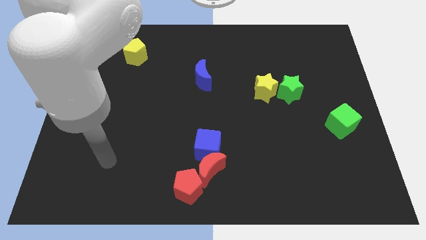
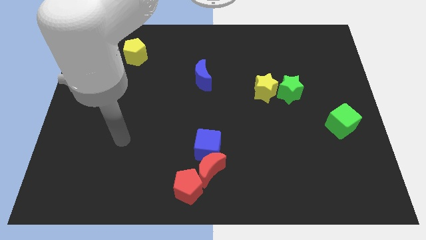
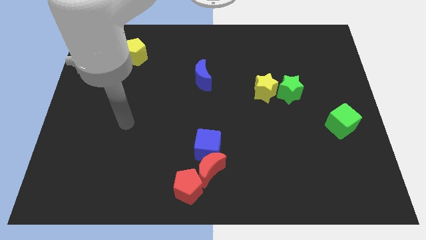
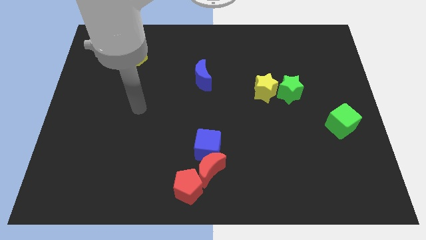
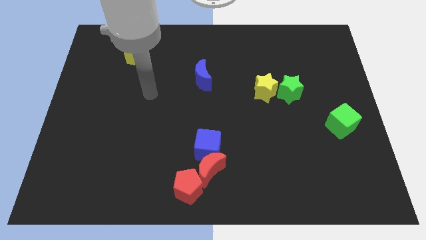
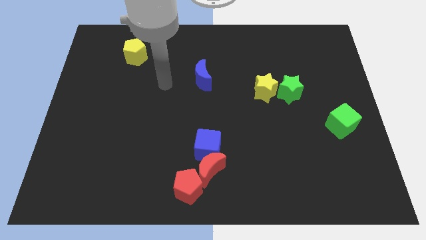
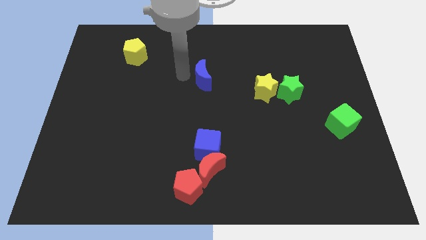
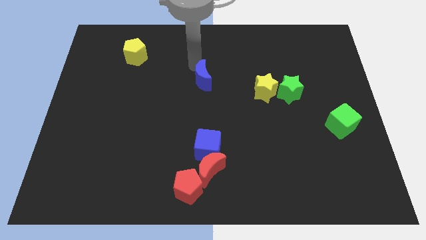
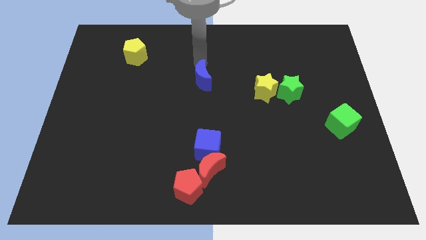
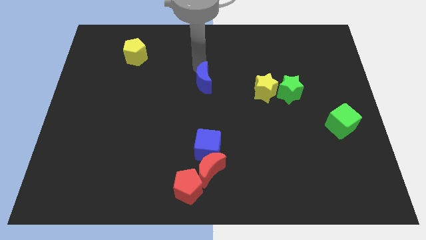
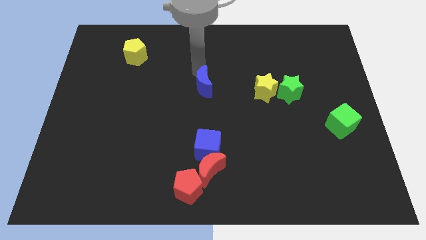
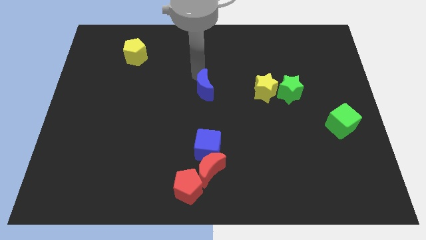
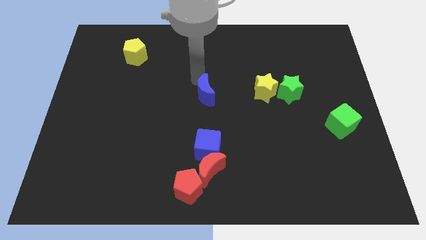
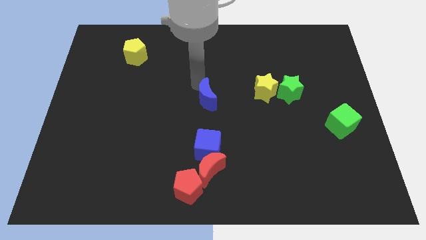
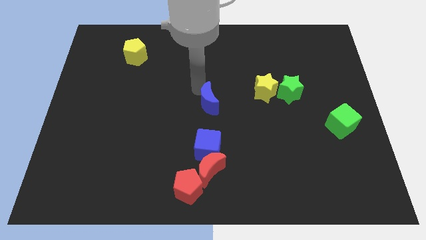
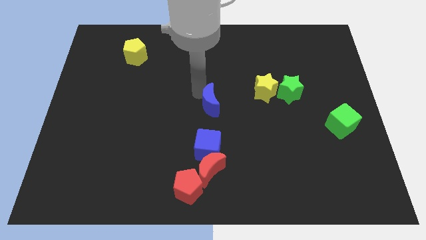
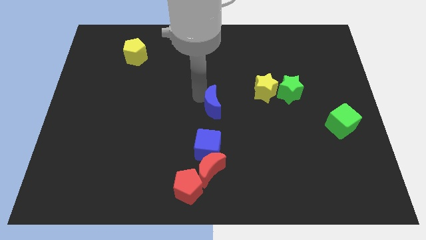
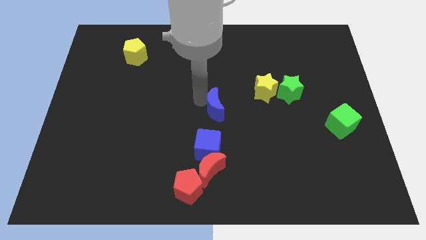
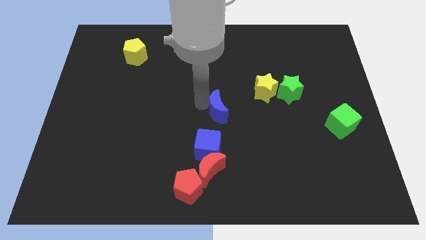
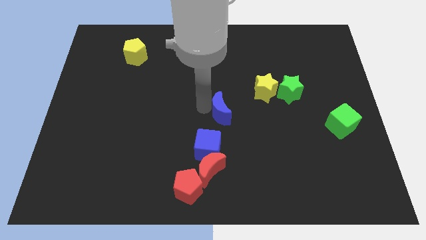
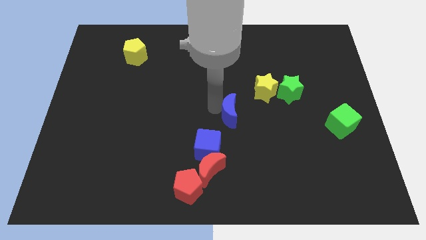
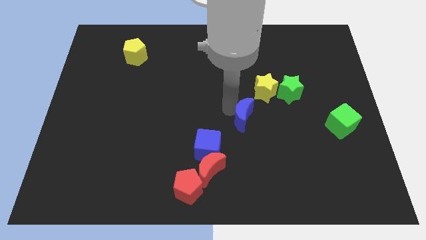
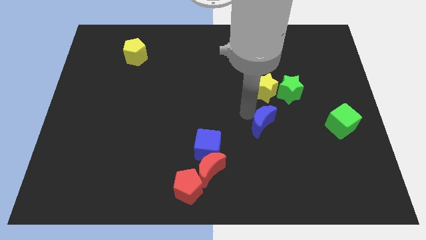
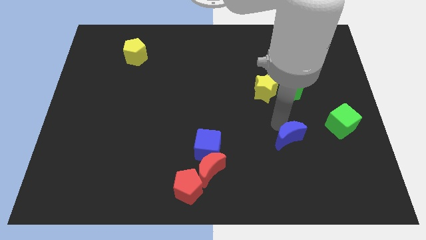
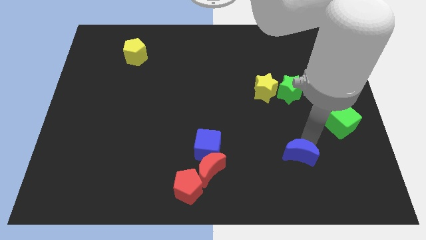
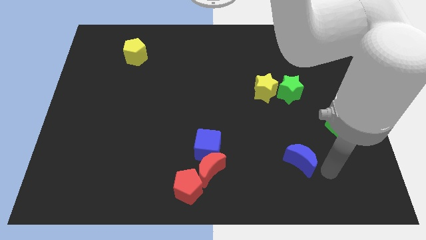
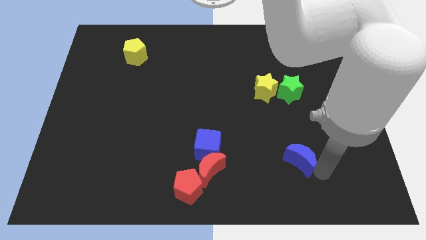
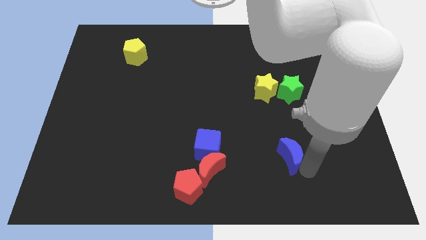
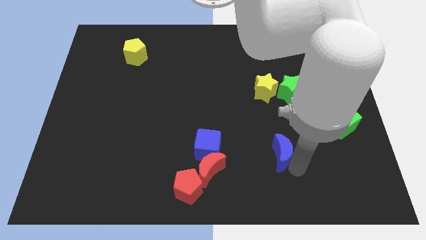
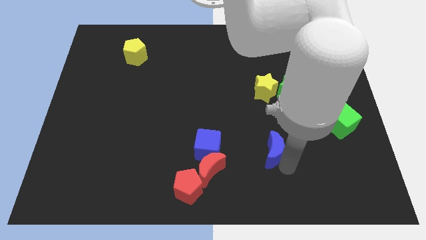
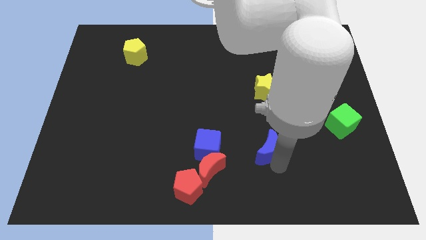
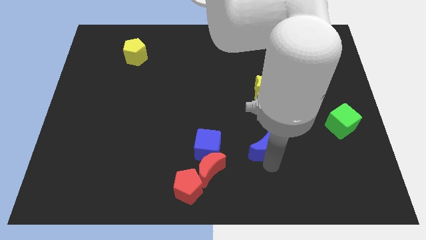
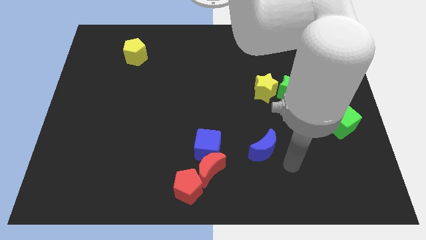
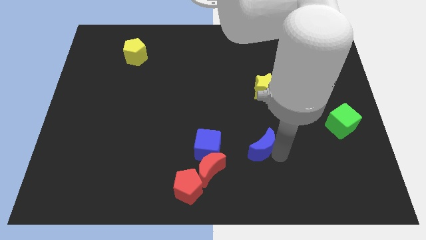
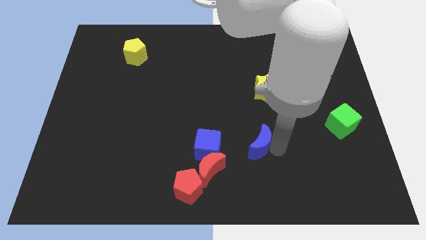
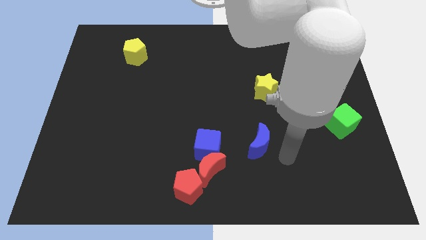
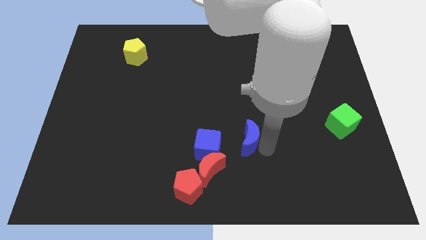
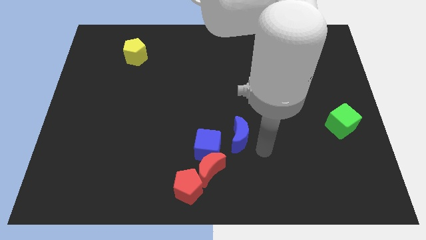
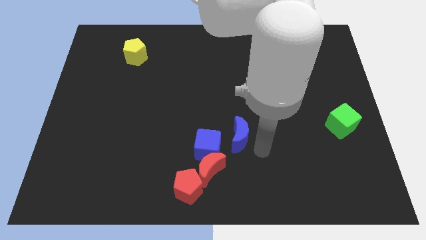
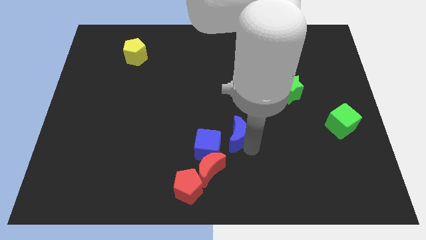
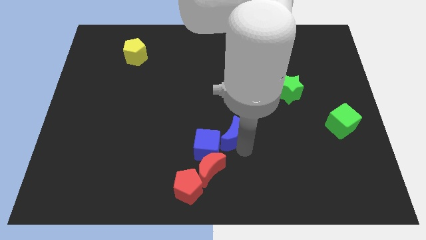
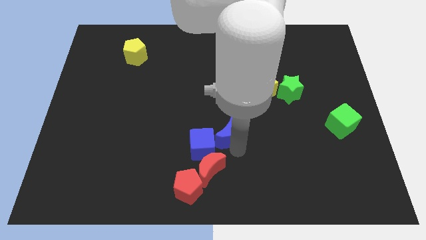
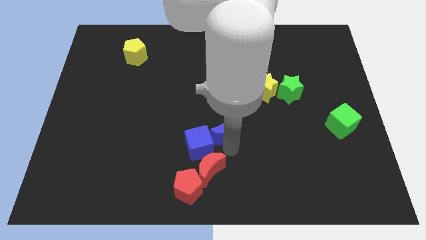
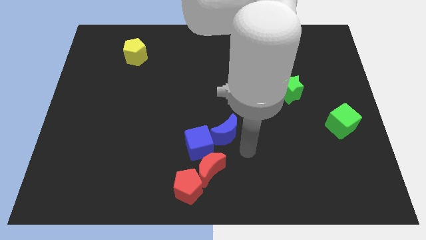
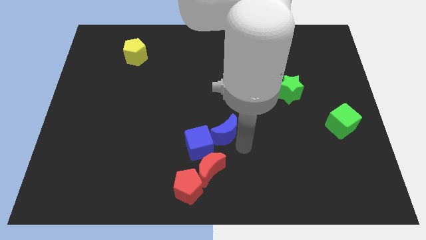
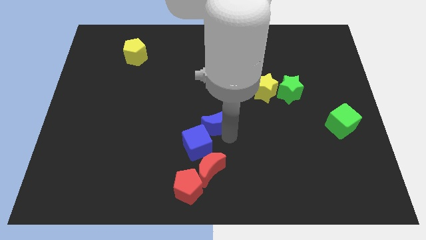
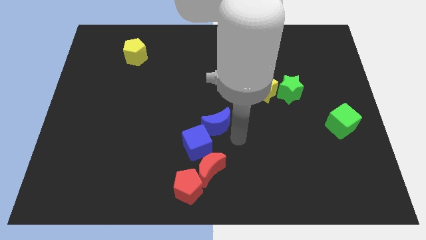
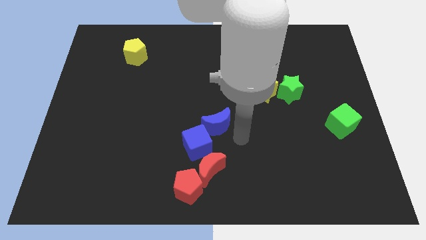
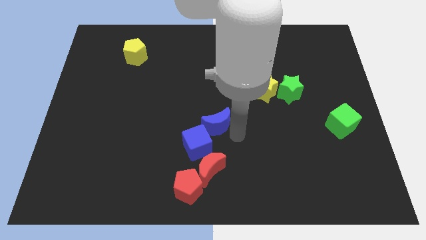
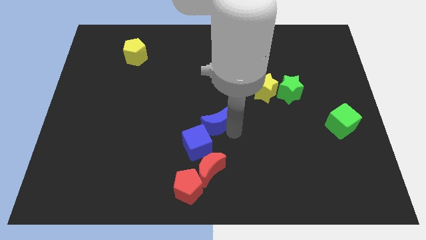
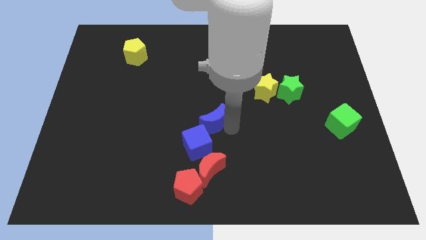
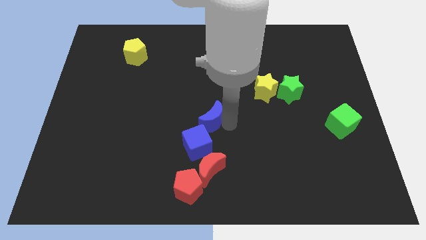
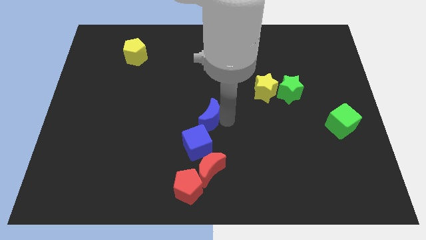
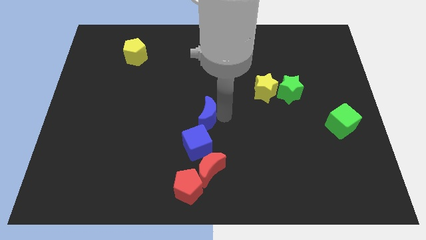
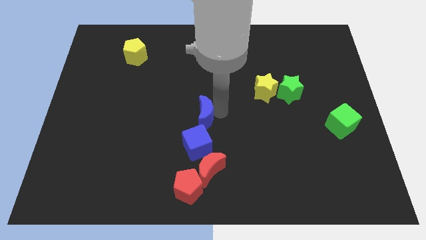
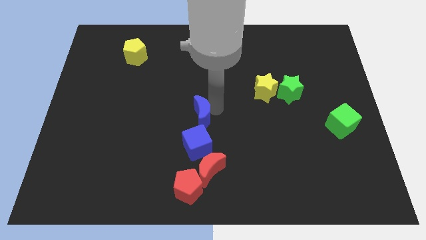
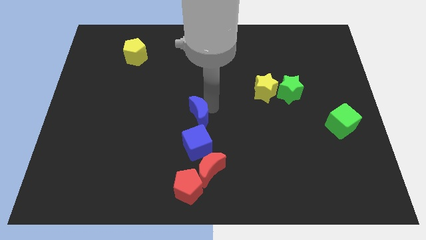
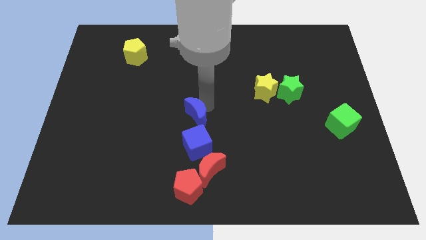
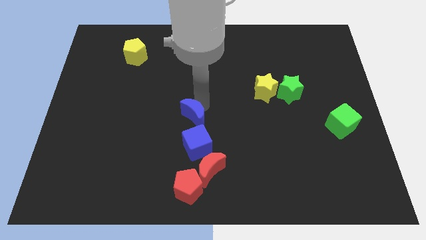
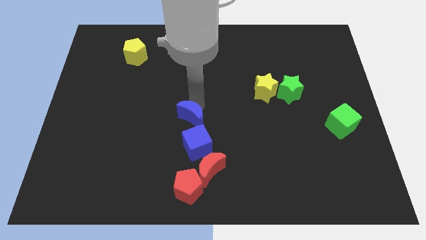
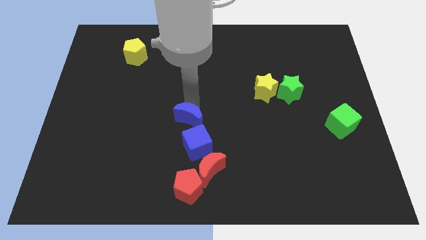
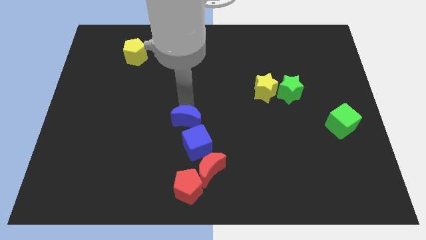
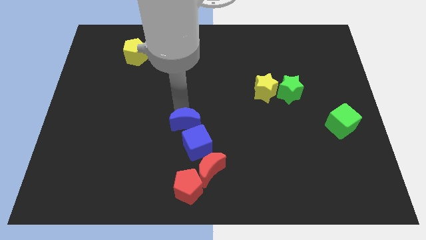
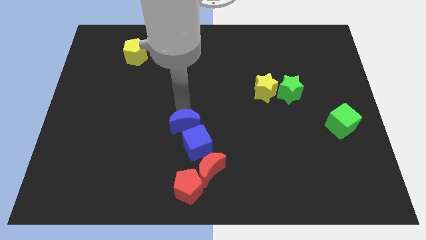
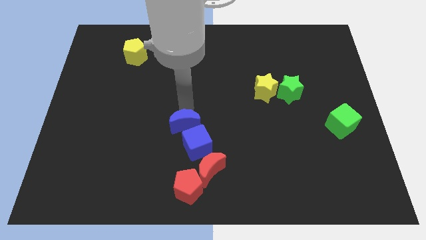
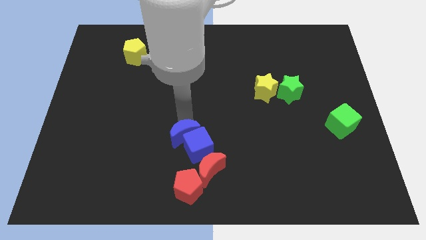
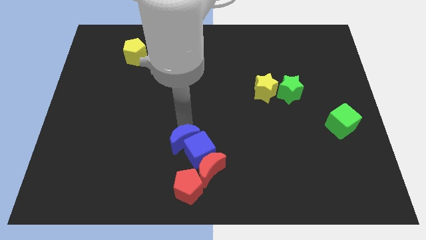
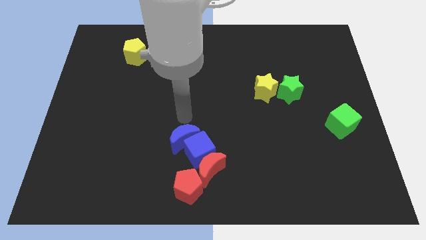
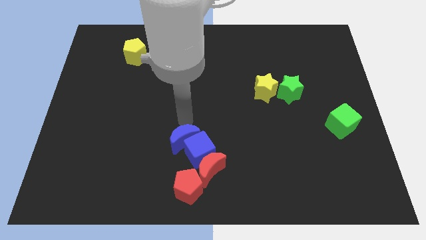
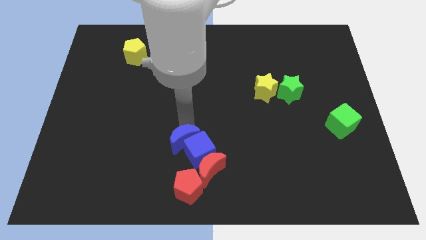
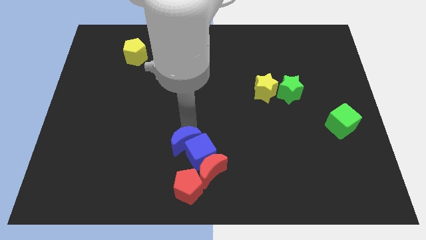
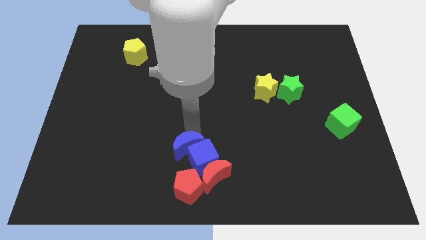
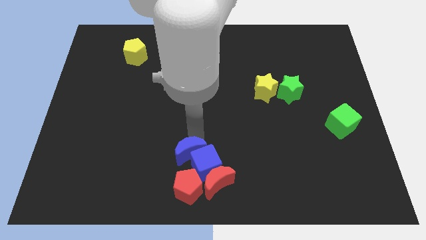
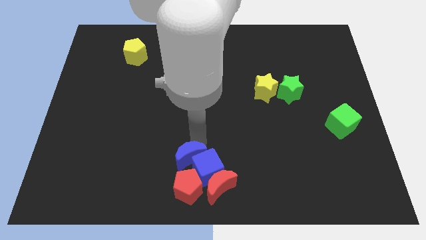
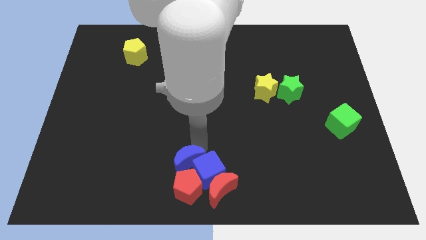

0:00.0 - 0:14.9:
slide the blue moon next to the red pentagon
